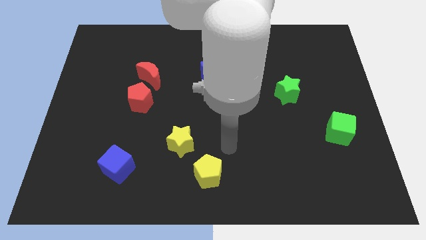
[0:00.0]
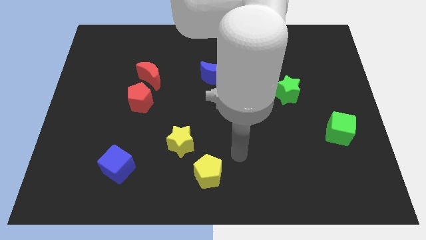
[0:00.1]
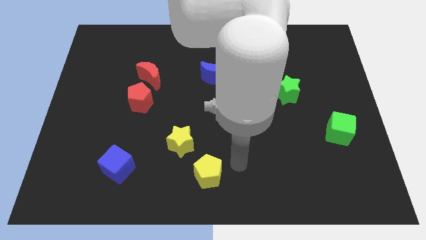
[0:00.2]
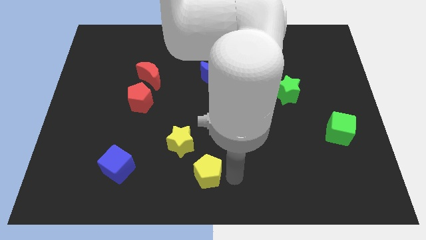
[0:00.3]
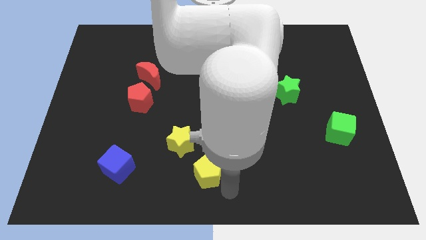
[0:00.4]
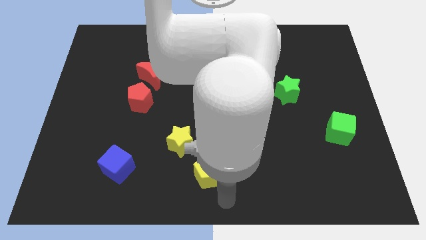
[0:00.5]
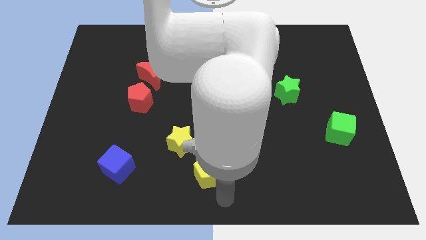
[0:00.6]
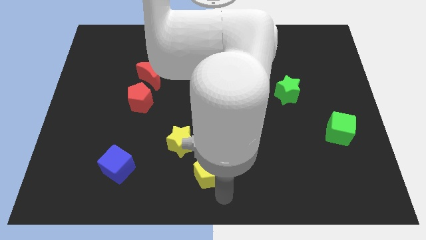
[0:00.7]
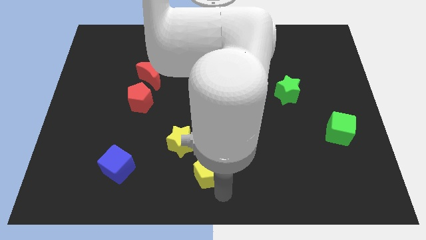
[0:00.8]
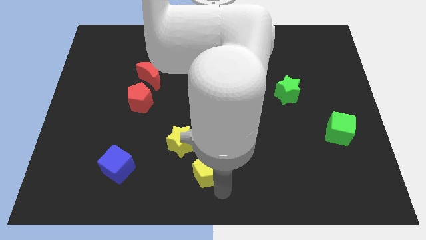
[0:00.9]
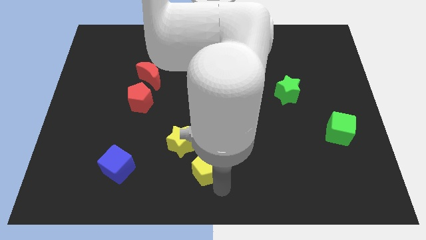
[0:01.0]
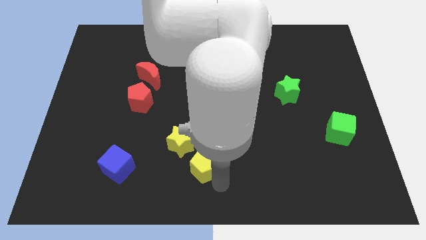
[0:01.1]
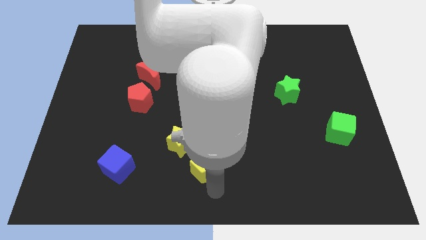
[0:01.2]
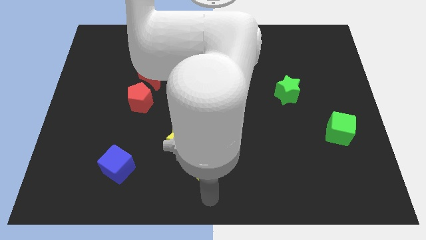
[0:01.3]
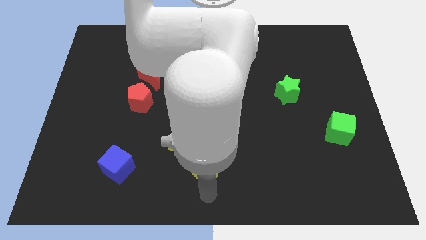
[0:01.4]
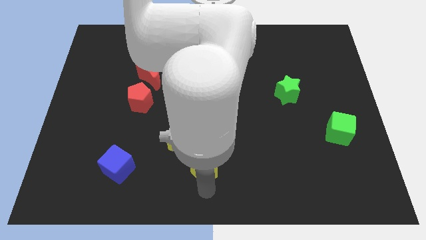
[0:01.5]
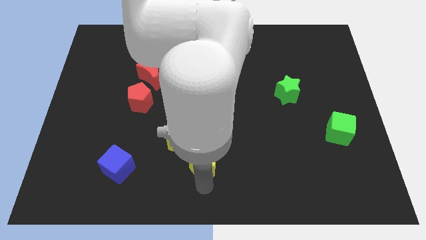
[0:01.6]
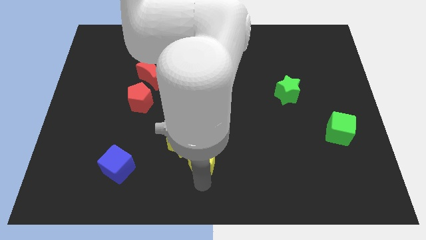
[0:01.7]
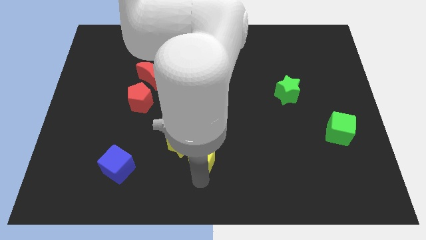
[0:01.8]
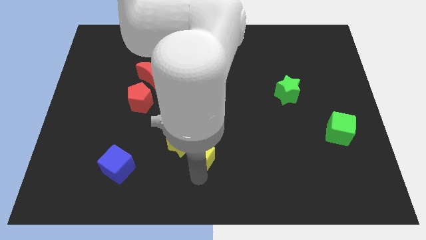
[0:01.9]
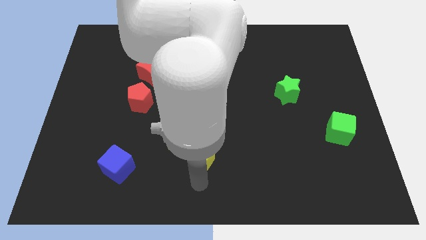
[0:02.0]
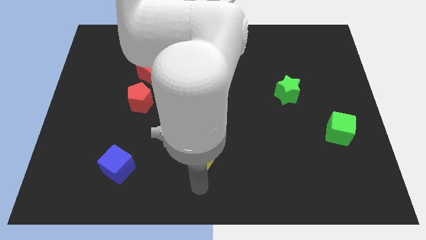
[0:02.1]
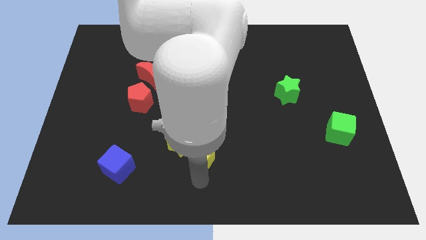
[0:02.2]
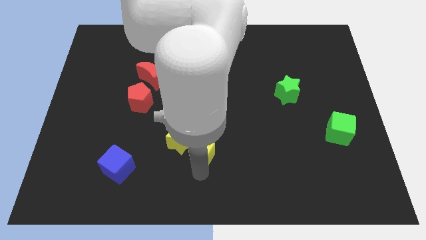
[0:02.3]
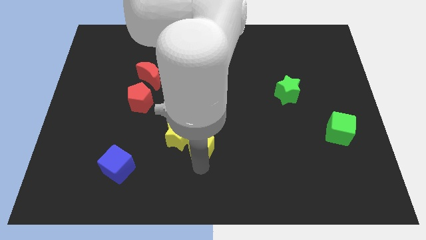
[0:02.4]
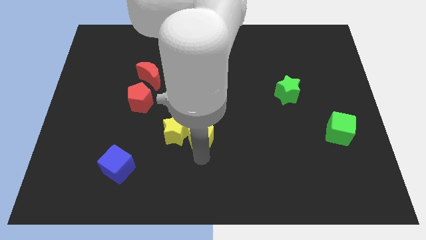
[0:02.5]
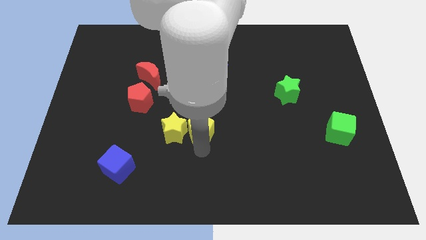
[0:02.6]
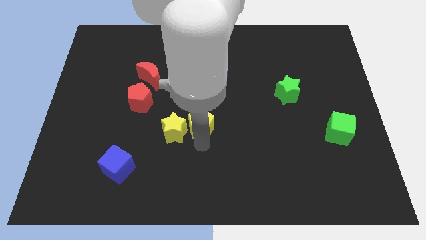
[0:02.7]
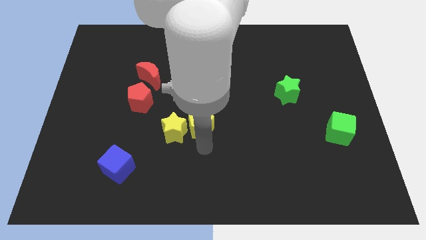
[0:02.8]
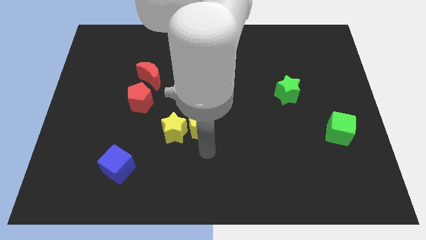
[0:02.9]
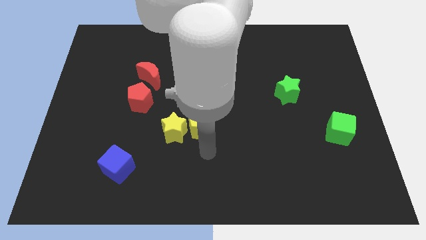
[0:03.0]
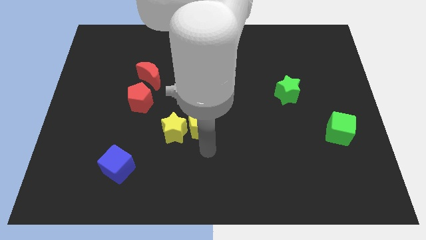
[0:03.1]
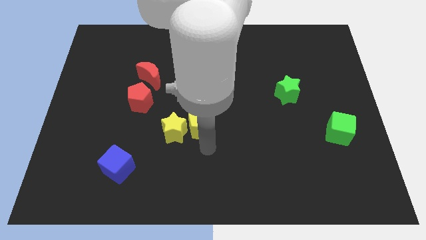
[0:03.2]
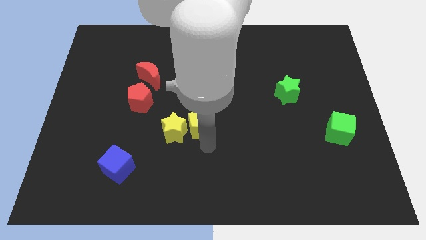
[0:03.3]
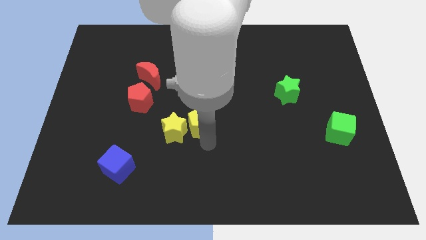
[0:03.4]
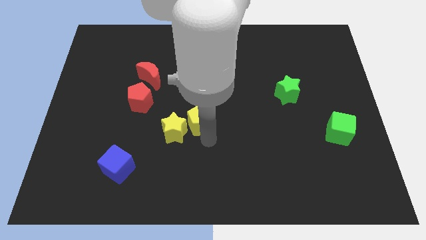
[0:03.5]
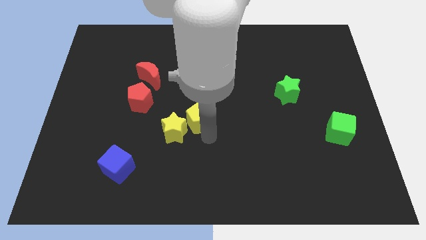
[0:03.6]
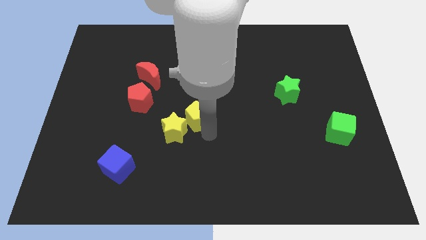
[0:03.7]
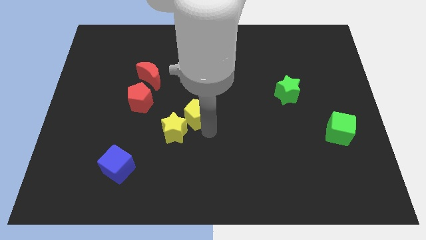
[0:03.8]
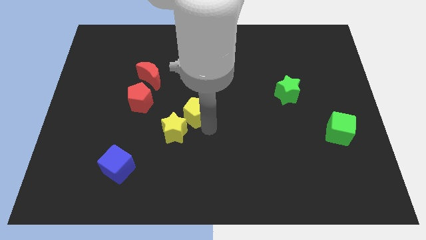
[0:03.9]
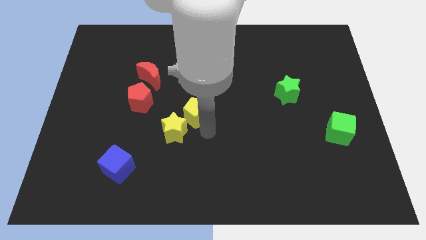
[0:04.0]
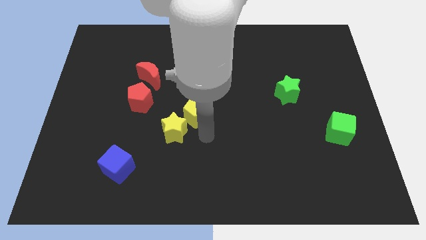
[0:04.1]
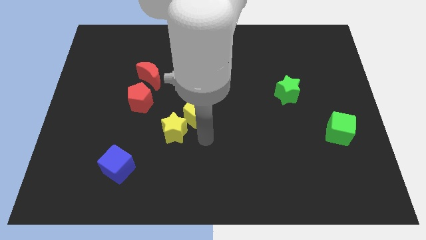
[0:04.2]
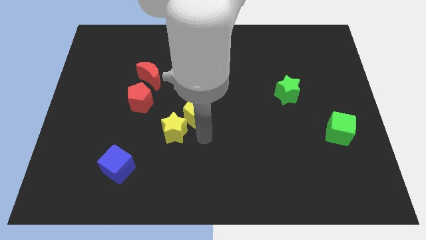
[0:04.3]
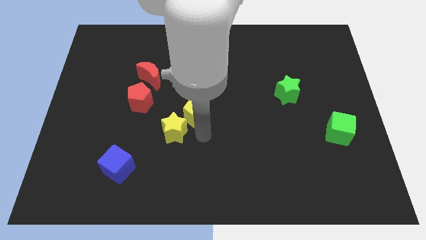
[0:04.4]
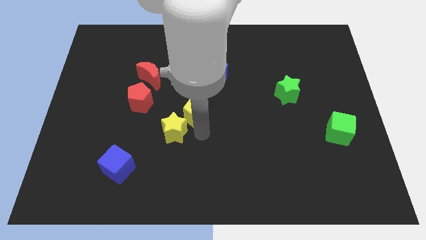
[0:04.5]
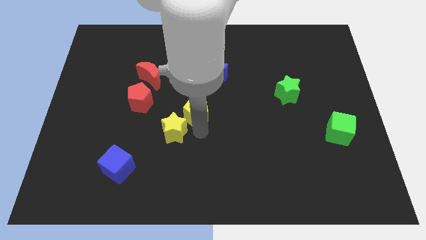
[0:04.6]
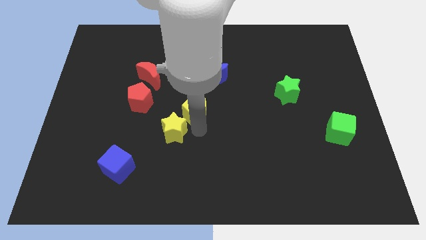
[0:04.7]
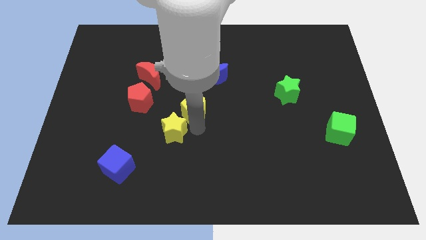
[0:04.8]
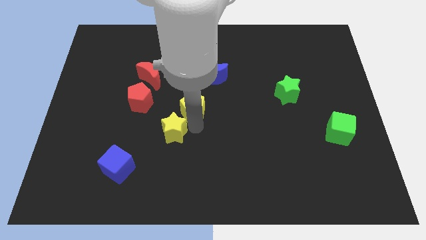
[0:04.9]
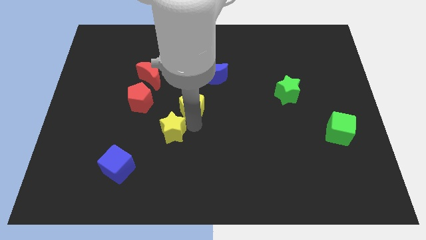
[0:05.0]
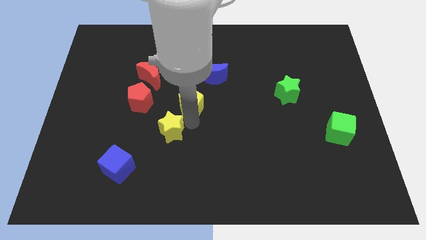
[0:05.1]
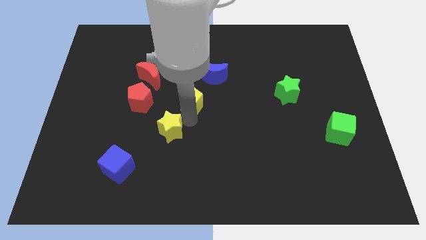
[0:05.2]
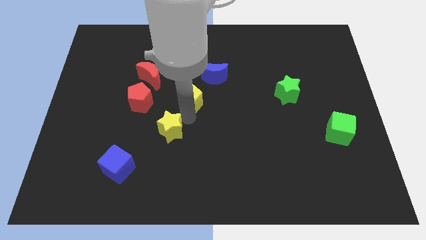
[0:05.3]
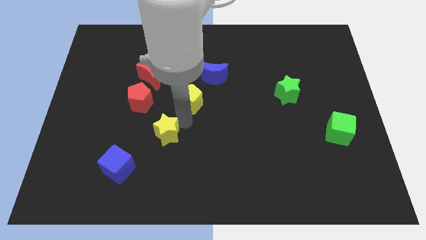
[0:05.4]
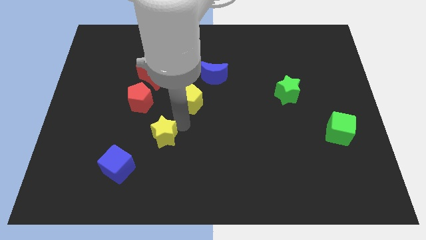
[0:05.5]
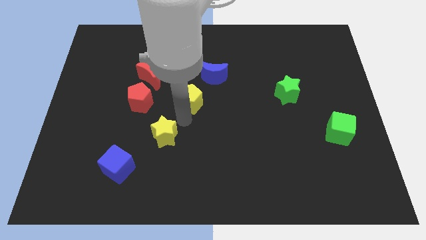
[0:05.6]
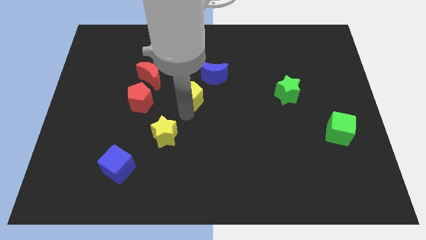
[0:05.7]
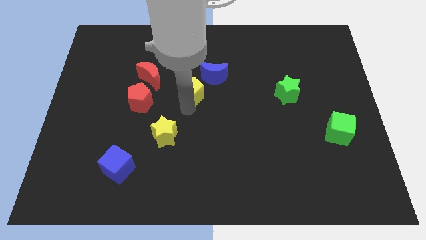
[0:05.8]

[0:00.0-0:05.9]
move the yellow pentagon upwards

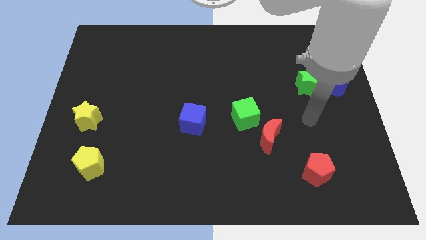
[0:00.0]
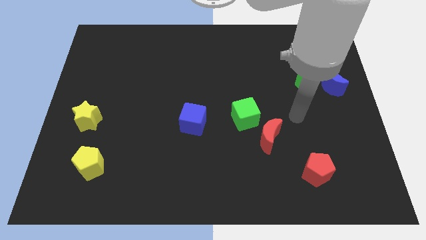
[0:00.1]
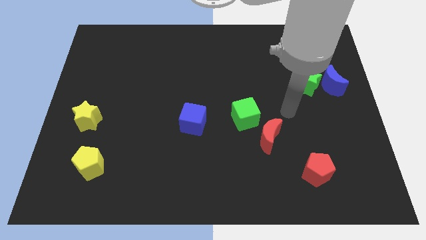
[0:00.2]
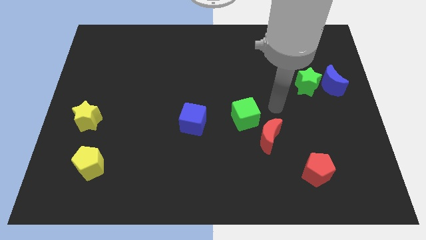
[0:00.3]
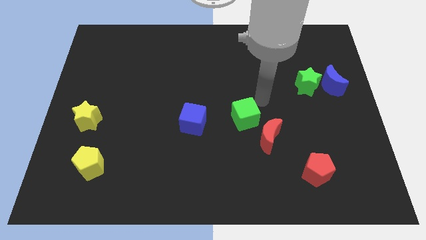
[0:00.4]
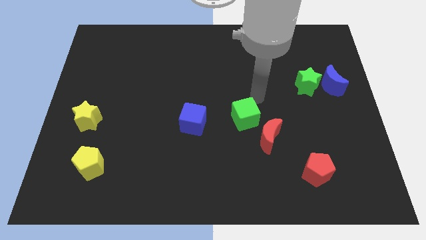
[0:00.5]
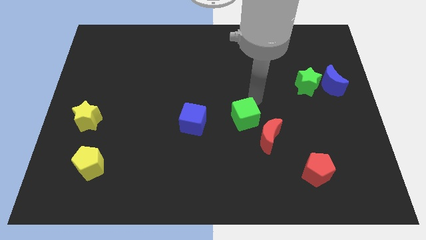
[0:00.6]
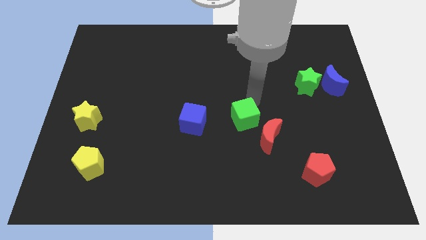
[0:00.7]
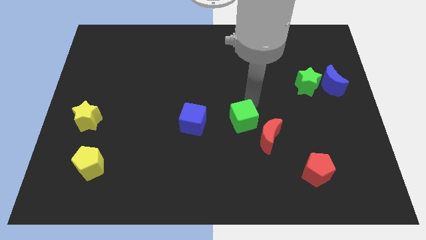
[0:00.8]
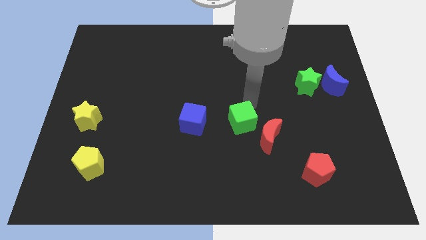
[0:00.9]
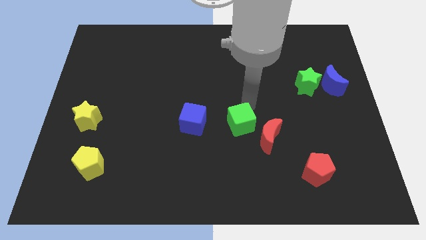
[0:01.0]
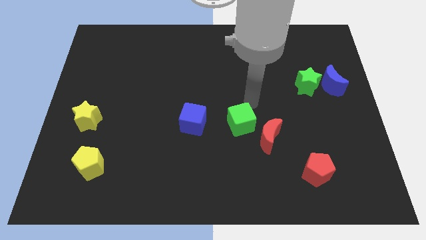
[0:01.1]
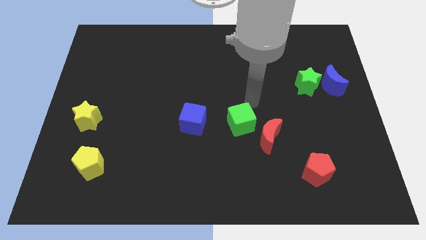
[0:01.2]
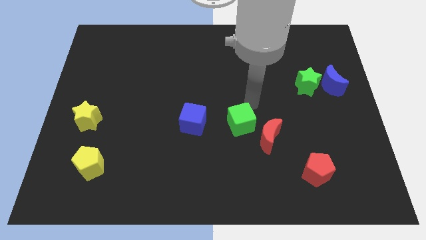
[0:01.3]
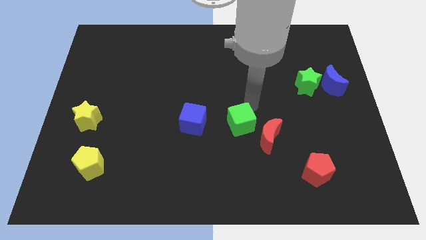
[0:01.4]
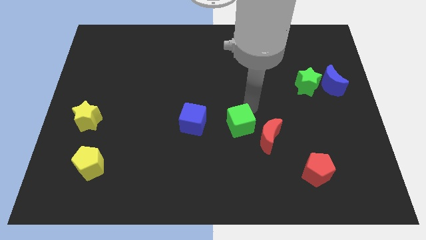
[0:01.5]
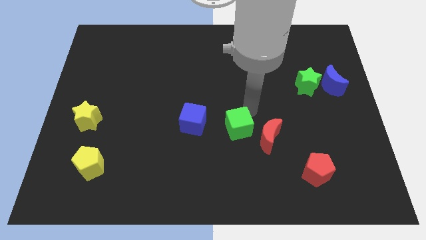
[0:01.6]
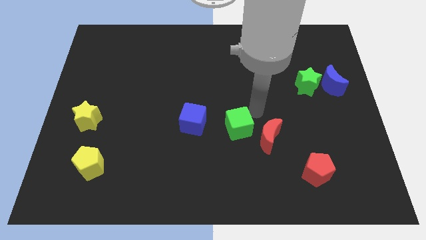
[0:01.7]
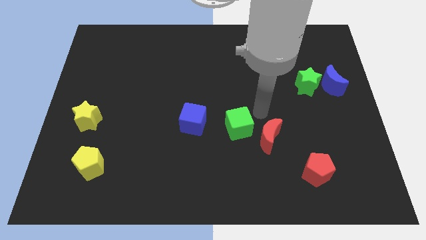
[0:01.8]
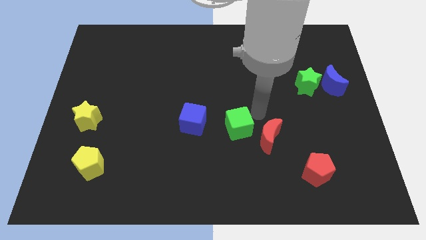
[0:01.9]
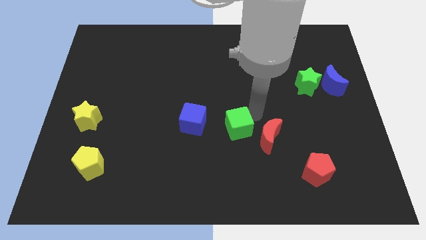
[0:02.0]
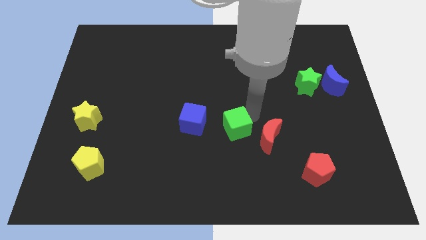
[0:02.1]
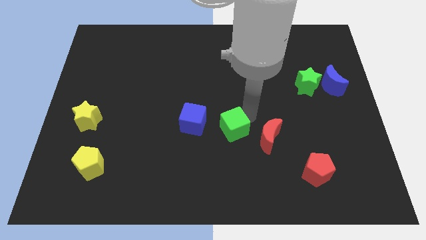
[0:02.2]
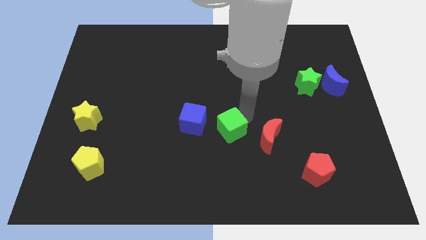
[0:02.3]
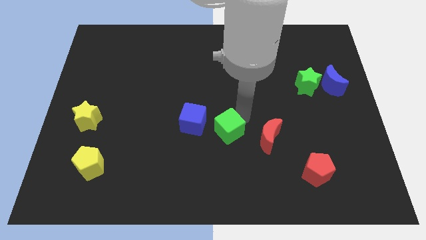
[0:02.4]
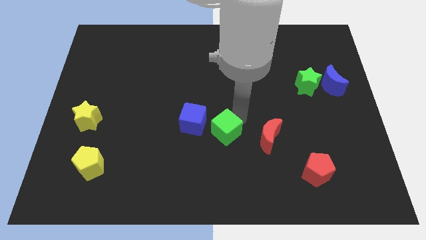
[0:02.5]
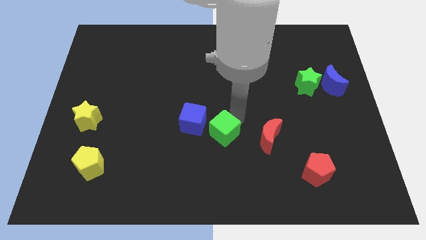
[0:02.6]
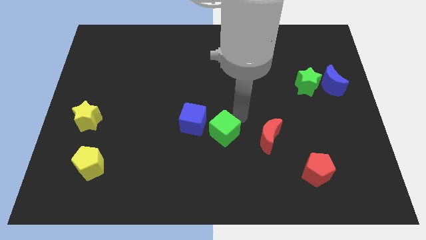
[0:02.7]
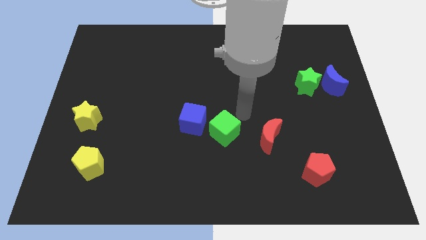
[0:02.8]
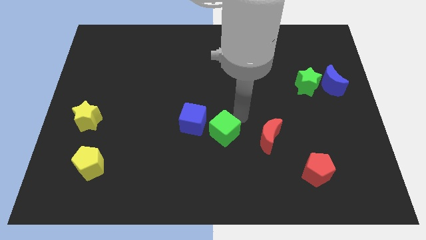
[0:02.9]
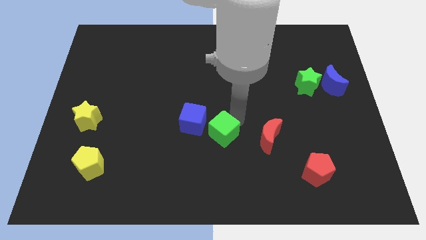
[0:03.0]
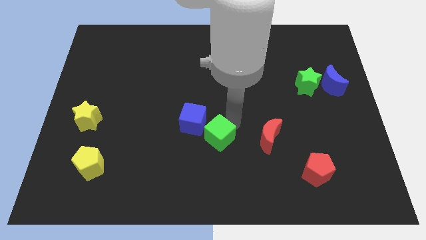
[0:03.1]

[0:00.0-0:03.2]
slightly slide the green cube down and left diagonally
